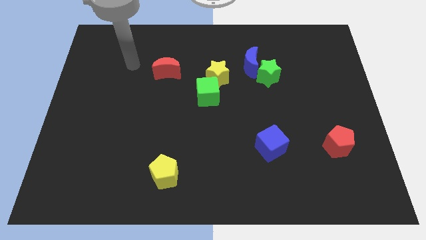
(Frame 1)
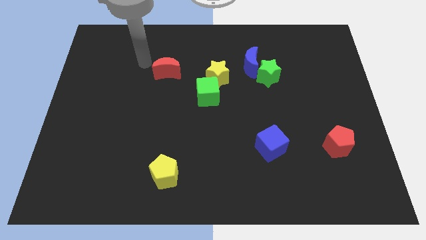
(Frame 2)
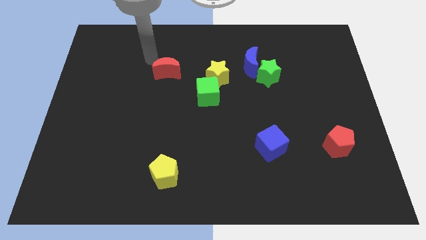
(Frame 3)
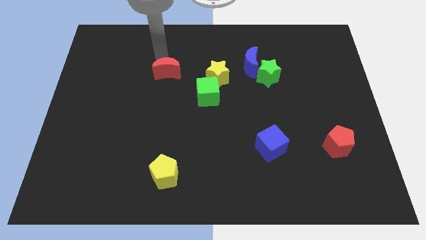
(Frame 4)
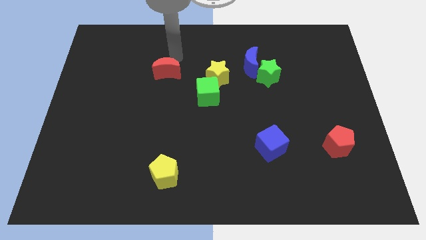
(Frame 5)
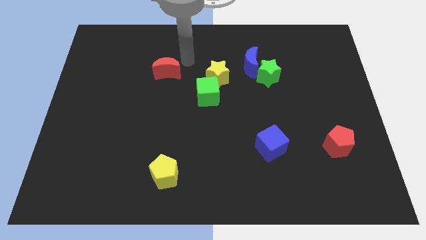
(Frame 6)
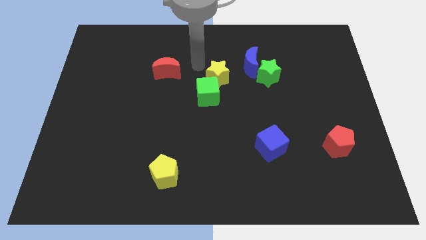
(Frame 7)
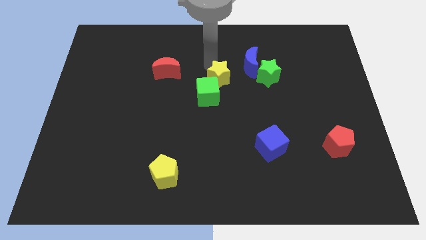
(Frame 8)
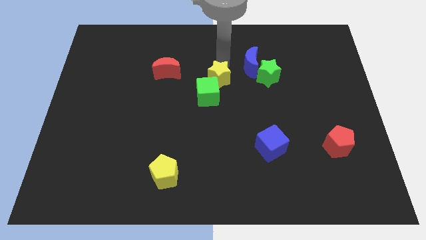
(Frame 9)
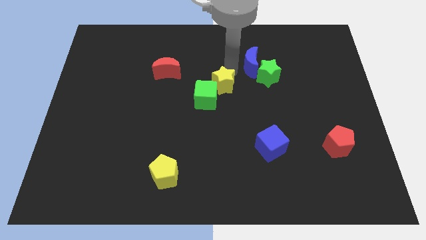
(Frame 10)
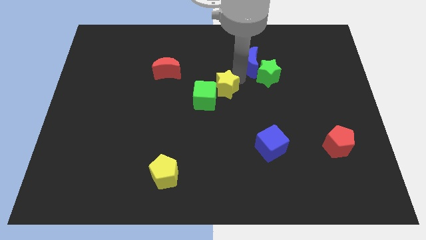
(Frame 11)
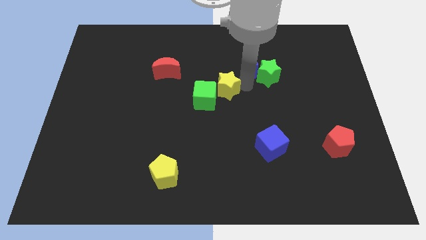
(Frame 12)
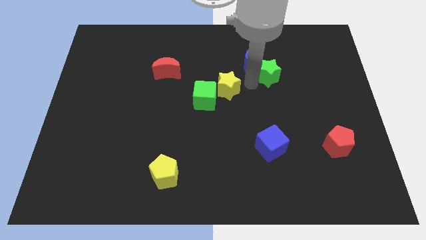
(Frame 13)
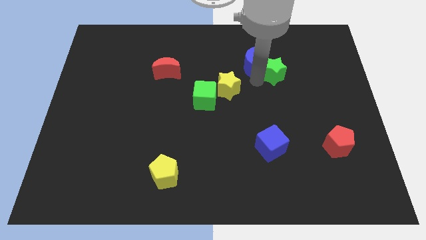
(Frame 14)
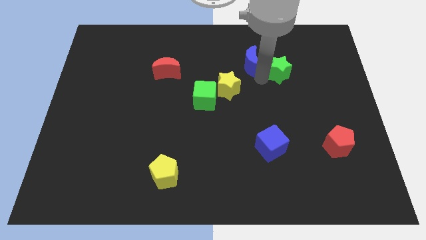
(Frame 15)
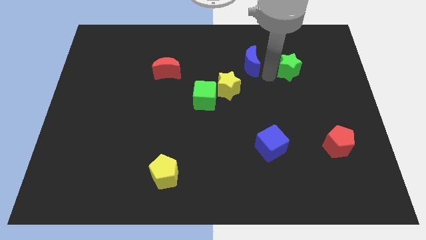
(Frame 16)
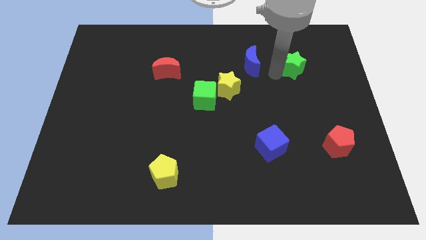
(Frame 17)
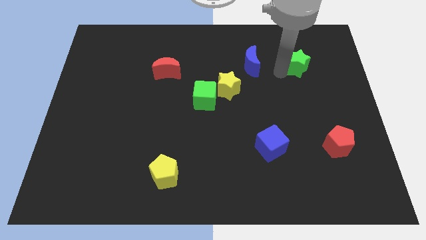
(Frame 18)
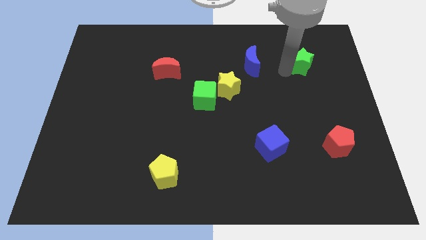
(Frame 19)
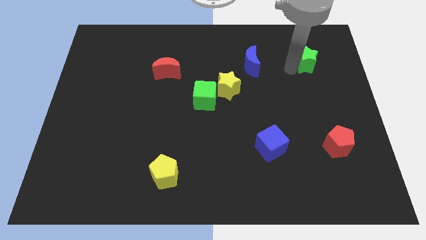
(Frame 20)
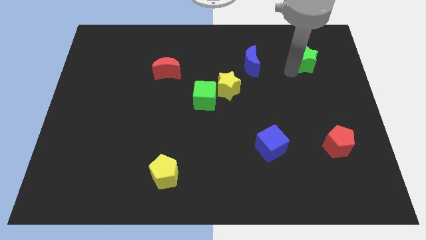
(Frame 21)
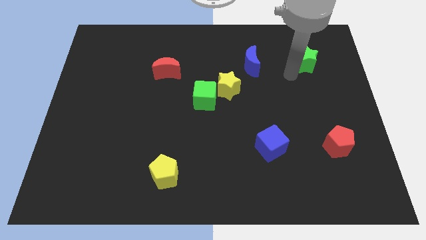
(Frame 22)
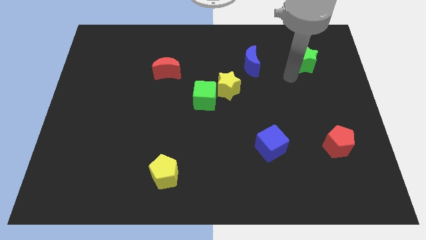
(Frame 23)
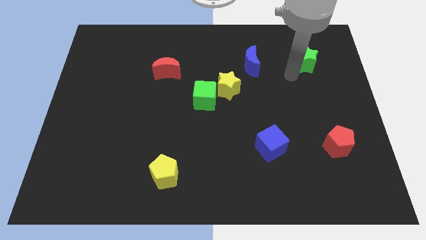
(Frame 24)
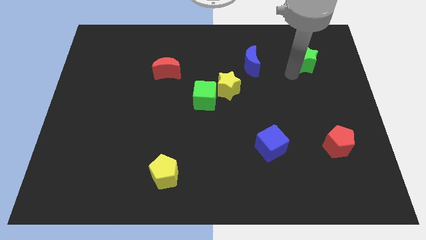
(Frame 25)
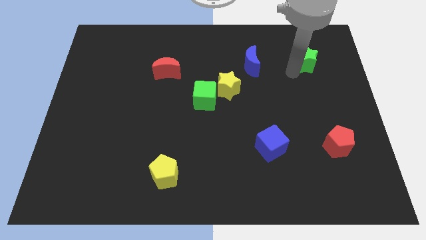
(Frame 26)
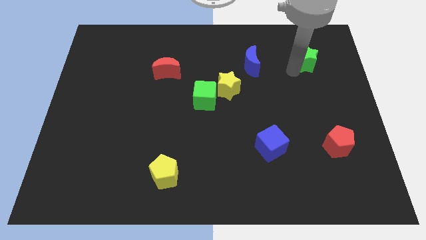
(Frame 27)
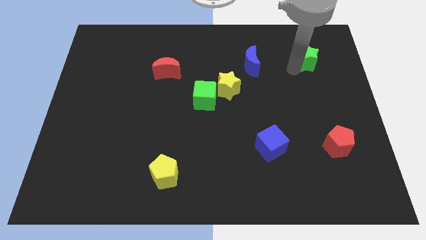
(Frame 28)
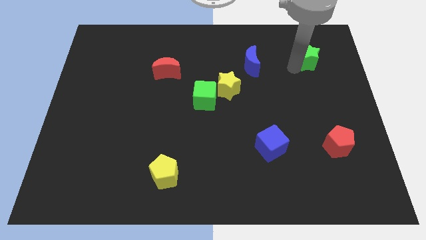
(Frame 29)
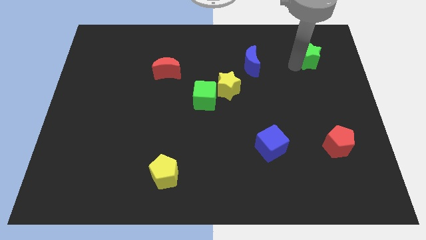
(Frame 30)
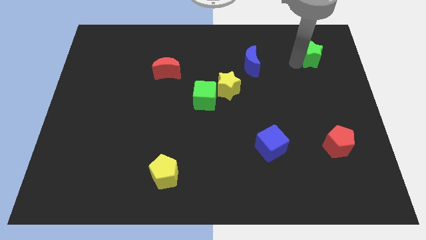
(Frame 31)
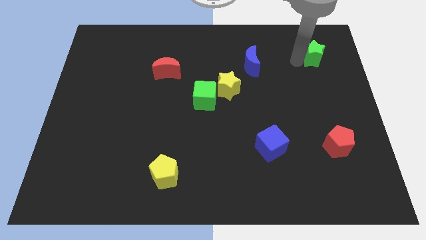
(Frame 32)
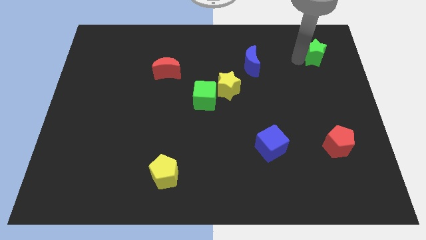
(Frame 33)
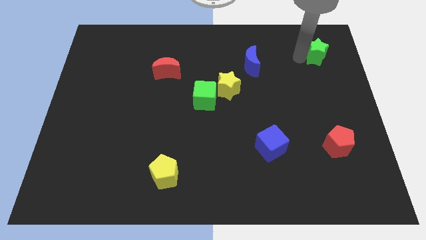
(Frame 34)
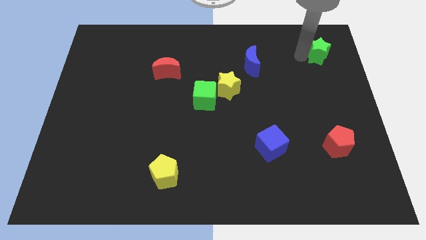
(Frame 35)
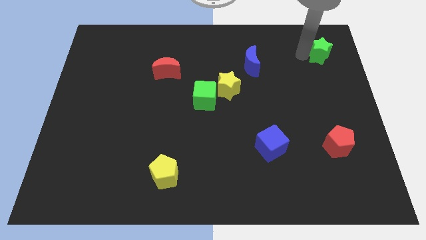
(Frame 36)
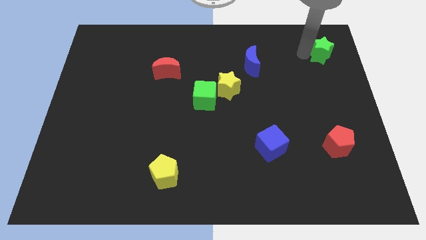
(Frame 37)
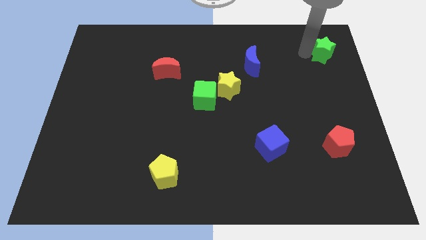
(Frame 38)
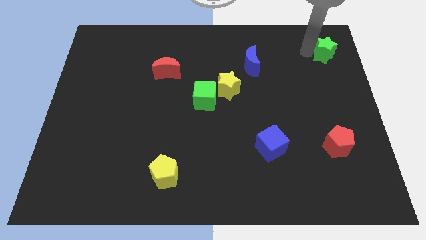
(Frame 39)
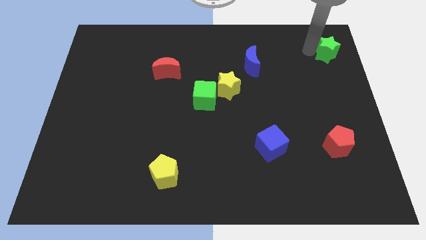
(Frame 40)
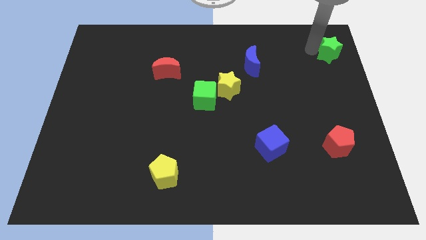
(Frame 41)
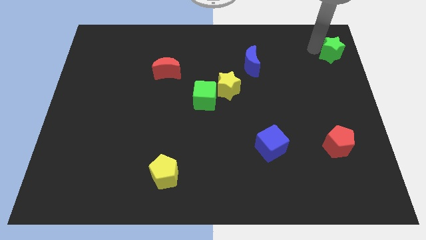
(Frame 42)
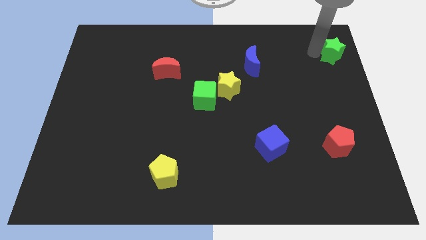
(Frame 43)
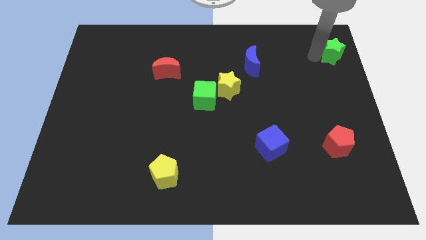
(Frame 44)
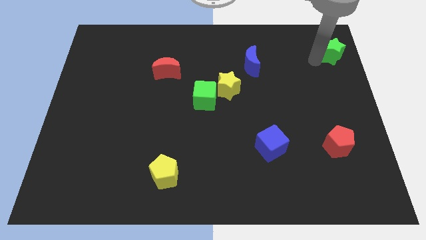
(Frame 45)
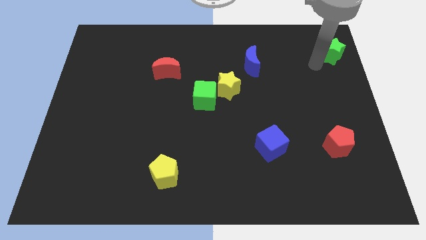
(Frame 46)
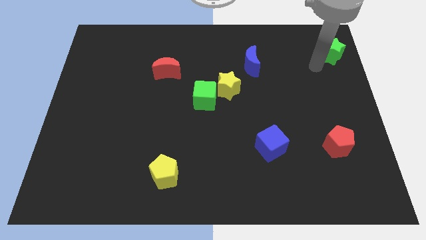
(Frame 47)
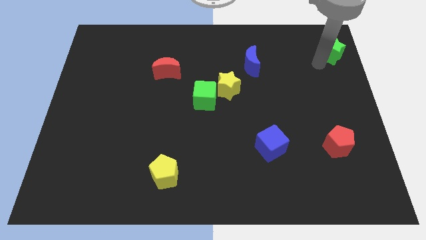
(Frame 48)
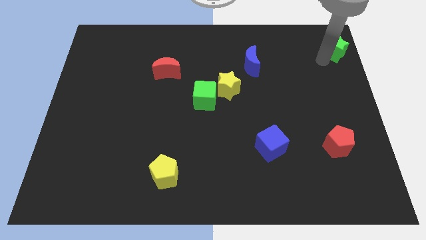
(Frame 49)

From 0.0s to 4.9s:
slide the green star to the upper right corner

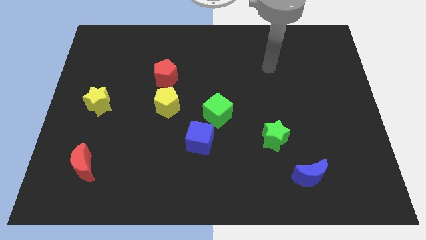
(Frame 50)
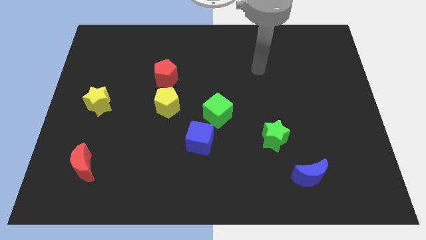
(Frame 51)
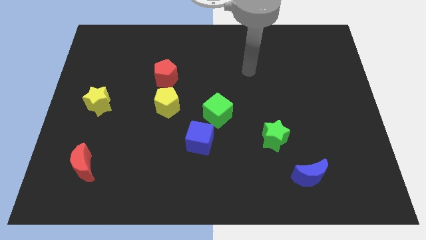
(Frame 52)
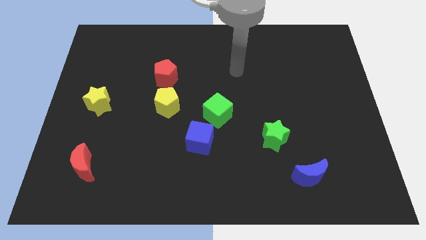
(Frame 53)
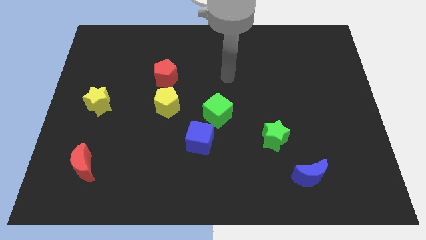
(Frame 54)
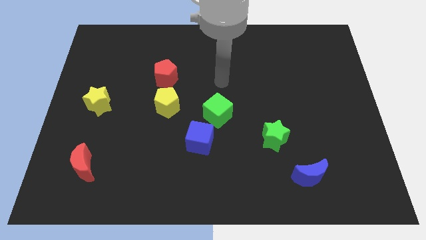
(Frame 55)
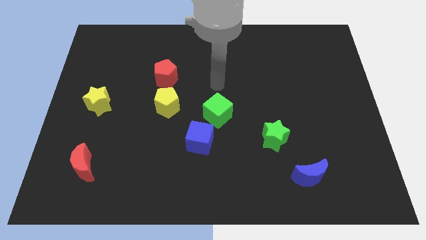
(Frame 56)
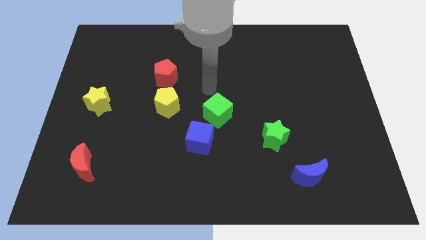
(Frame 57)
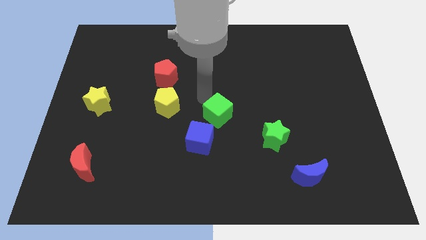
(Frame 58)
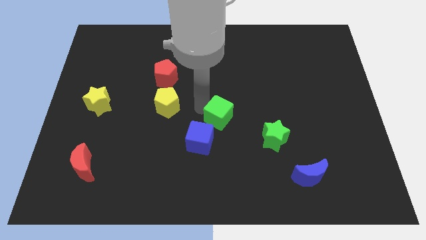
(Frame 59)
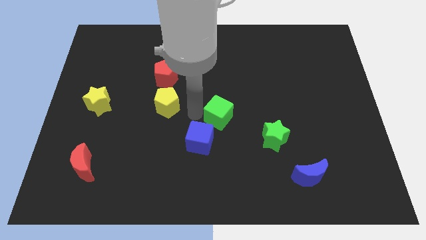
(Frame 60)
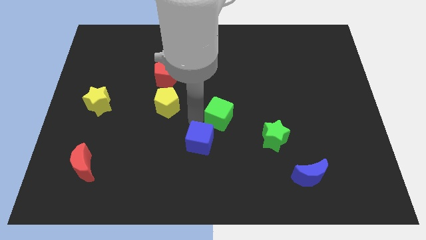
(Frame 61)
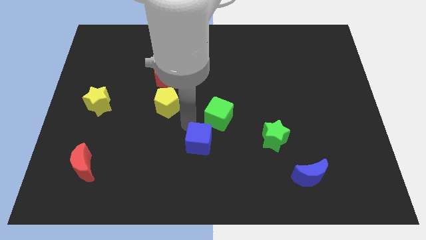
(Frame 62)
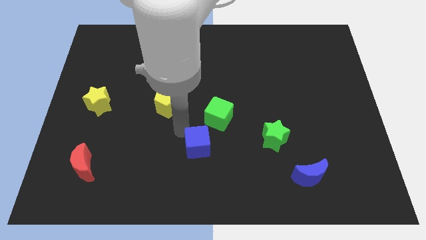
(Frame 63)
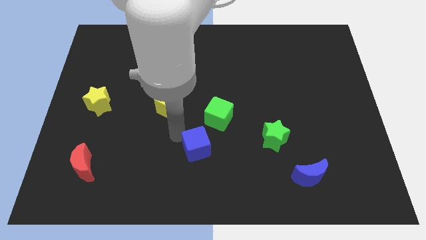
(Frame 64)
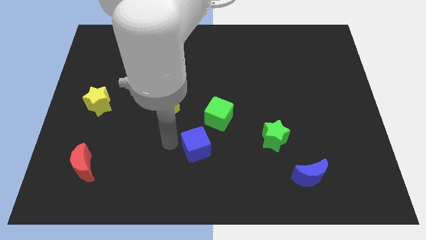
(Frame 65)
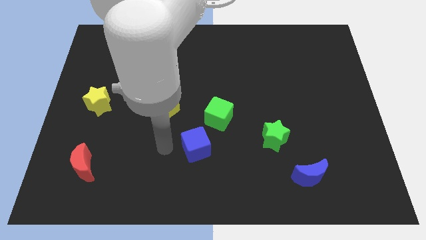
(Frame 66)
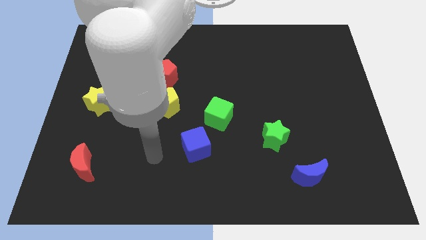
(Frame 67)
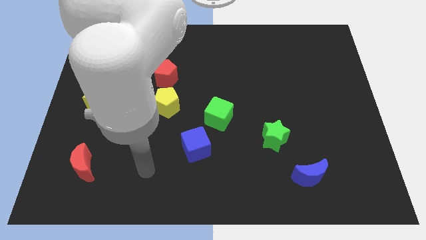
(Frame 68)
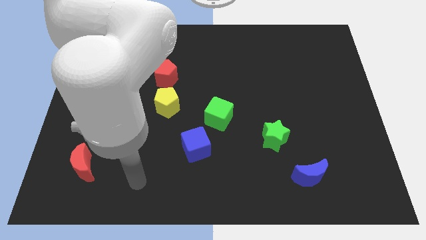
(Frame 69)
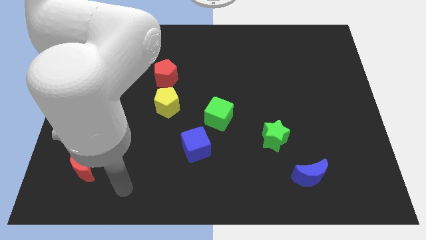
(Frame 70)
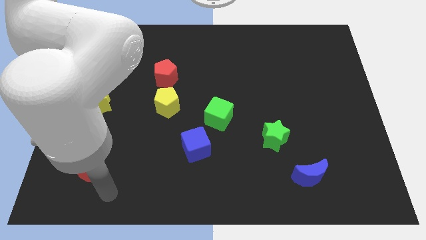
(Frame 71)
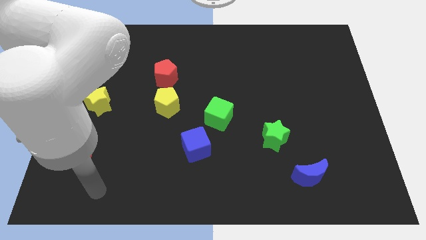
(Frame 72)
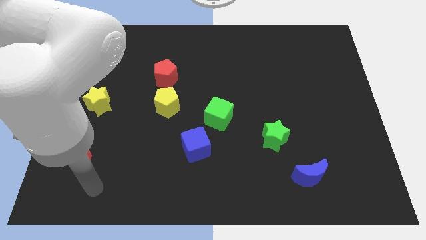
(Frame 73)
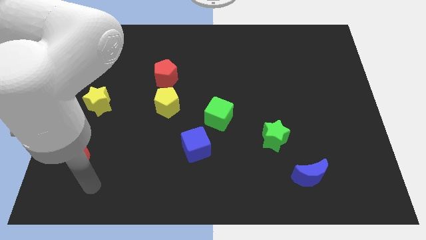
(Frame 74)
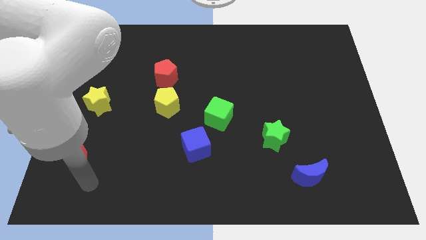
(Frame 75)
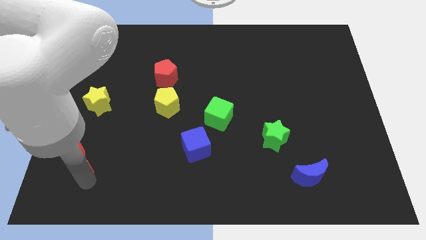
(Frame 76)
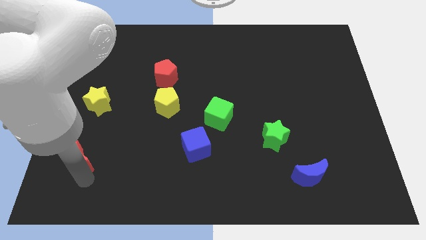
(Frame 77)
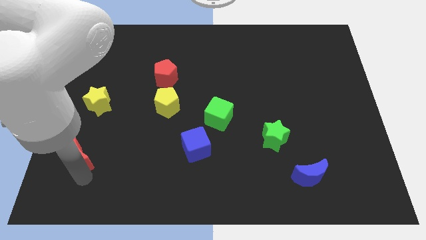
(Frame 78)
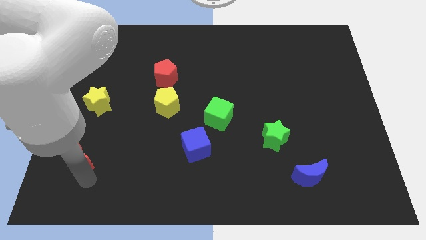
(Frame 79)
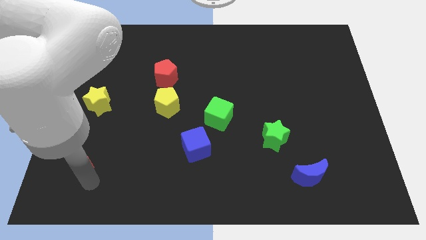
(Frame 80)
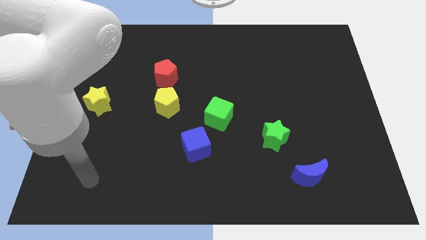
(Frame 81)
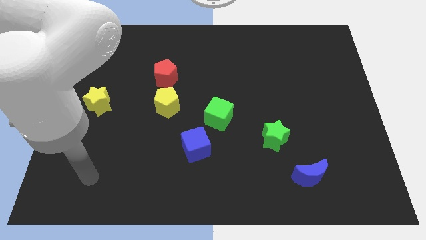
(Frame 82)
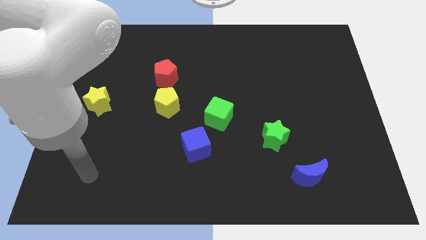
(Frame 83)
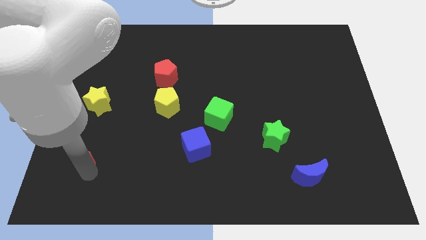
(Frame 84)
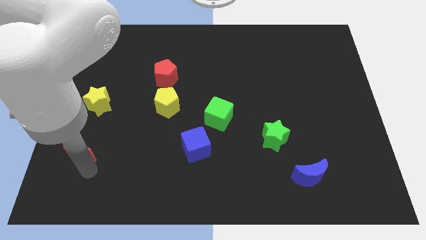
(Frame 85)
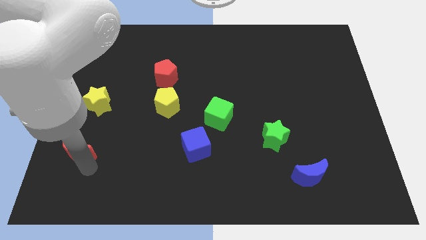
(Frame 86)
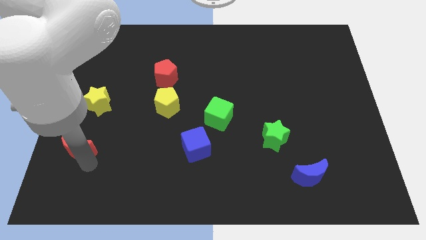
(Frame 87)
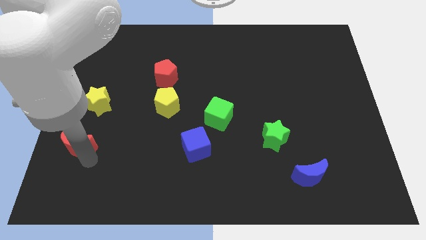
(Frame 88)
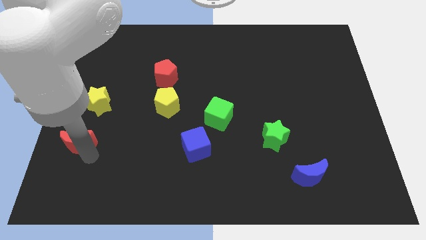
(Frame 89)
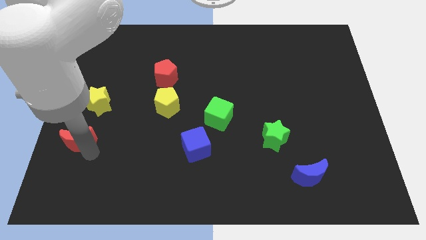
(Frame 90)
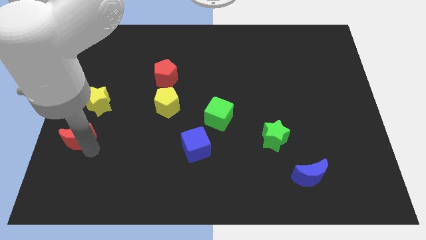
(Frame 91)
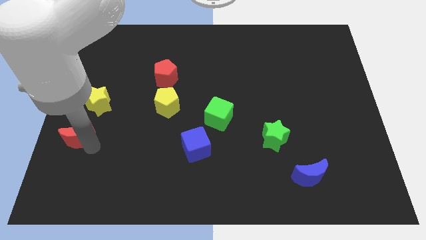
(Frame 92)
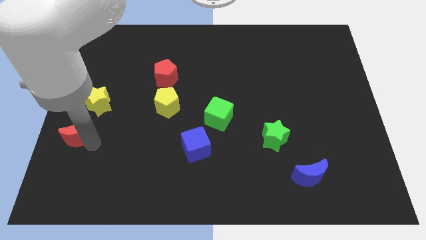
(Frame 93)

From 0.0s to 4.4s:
move the red moon to the center left
